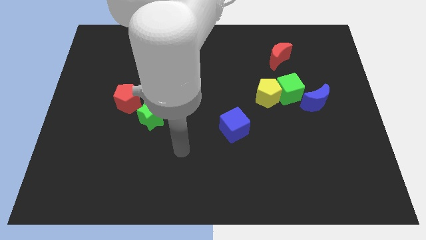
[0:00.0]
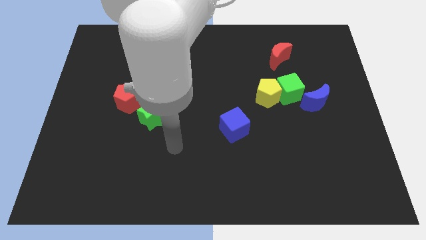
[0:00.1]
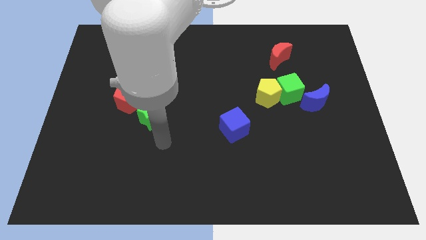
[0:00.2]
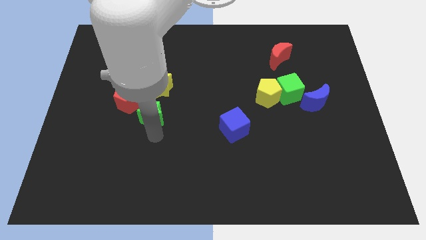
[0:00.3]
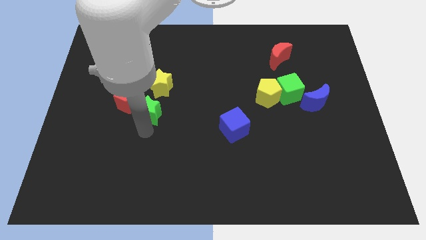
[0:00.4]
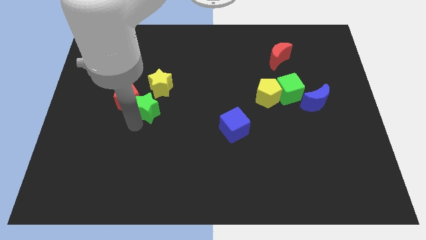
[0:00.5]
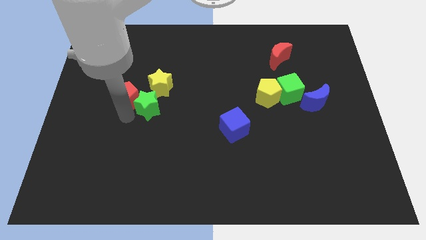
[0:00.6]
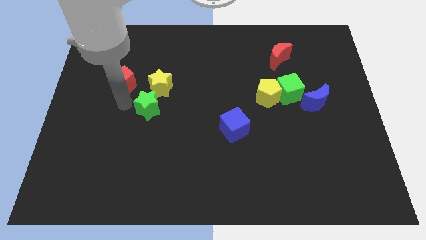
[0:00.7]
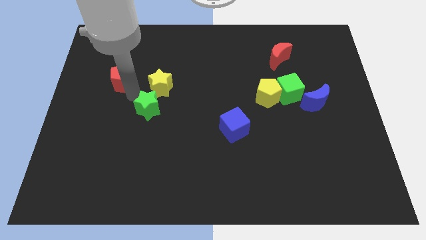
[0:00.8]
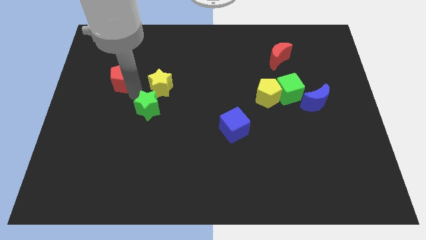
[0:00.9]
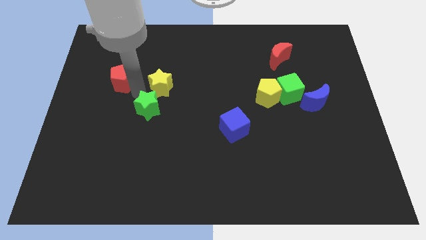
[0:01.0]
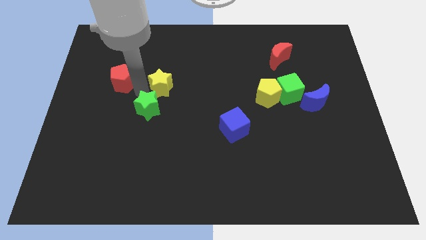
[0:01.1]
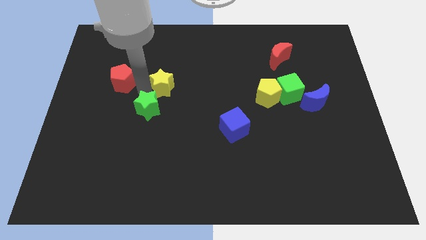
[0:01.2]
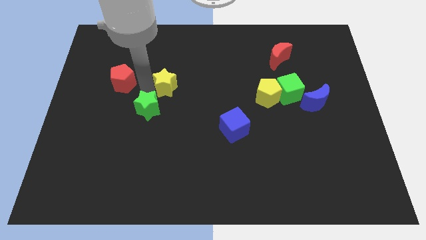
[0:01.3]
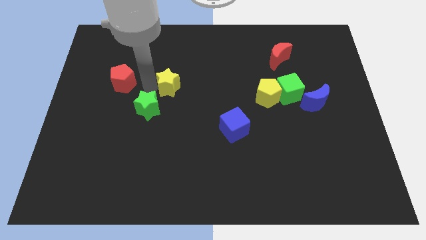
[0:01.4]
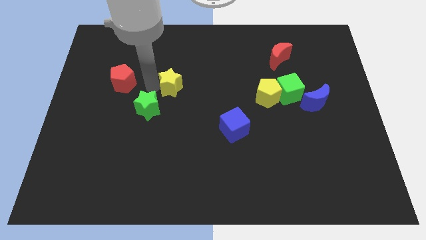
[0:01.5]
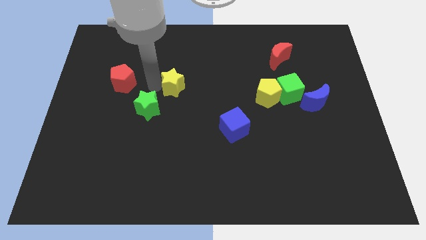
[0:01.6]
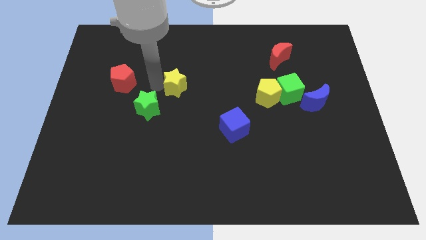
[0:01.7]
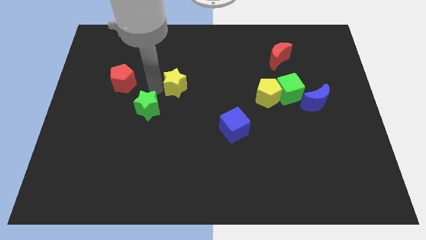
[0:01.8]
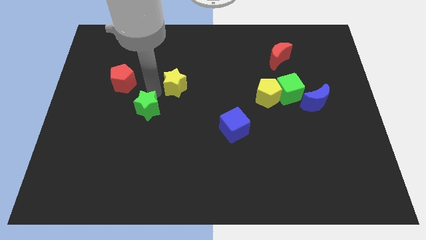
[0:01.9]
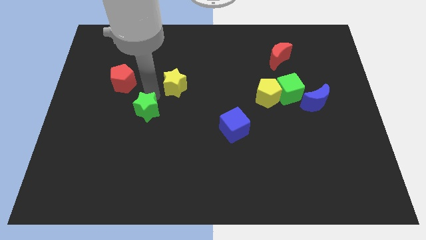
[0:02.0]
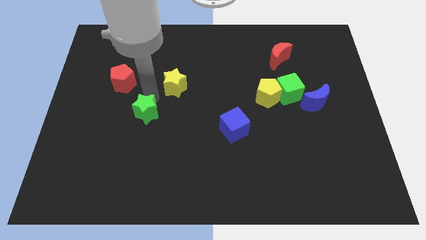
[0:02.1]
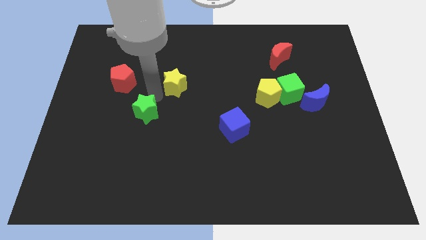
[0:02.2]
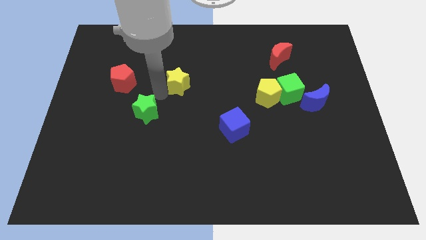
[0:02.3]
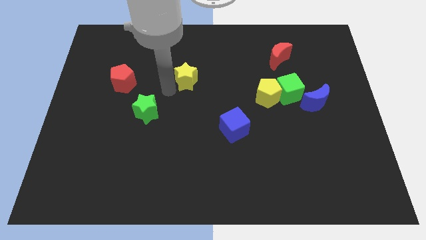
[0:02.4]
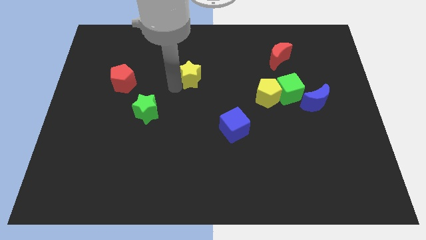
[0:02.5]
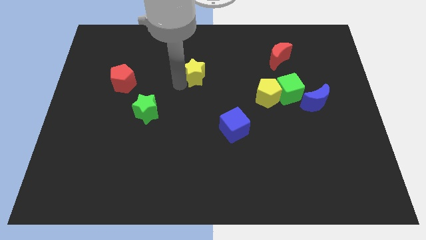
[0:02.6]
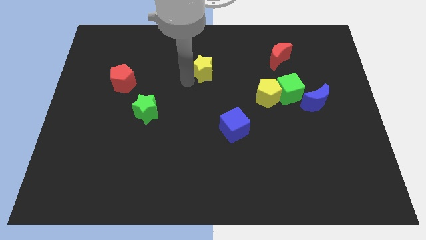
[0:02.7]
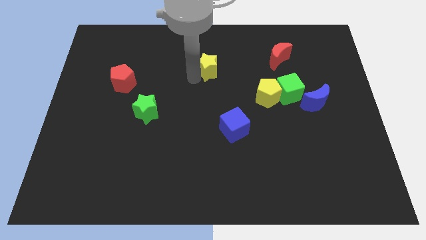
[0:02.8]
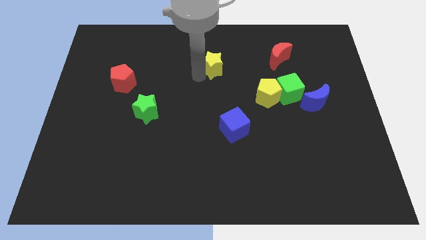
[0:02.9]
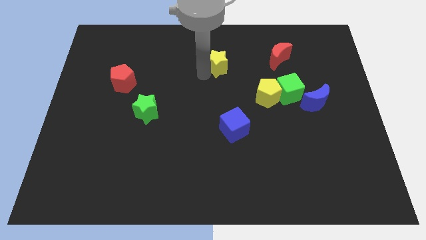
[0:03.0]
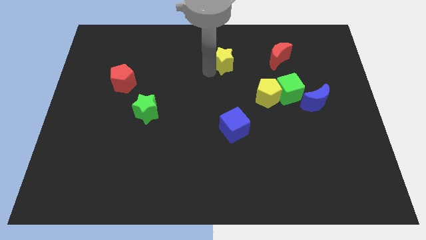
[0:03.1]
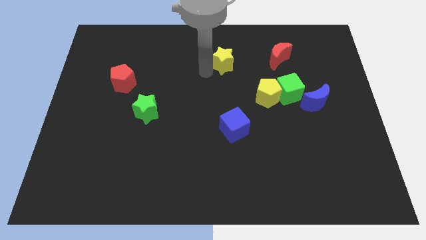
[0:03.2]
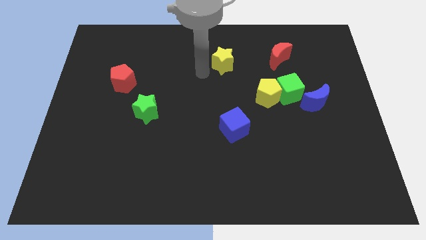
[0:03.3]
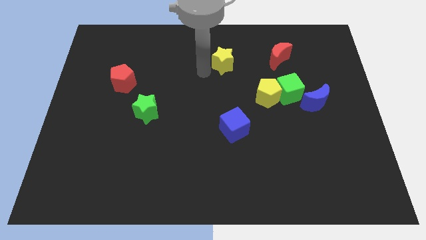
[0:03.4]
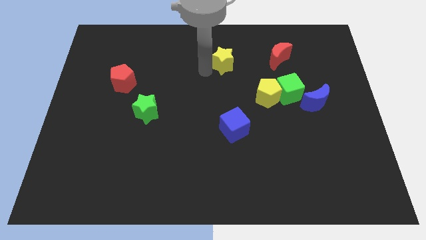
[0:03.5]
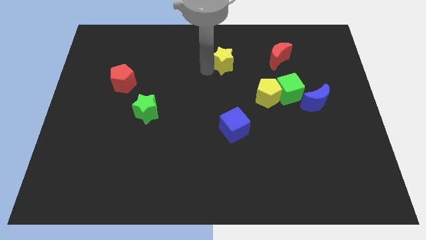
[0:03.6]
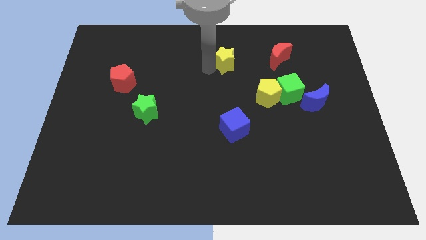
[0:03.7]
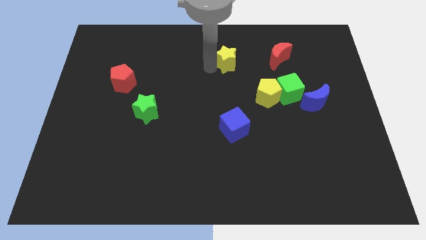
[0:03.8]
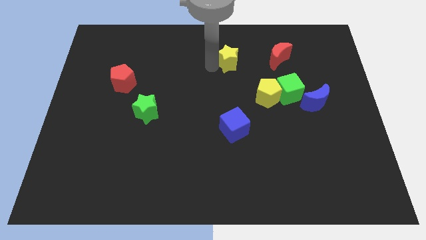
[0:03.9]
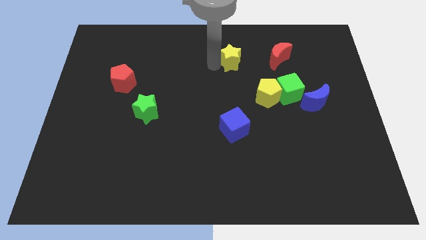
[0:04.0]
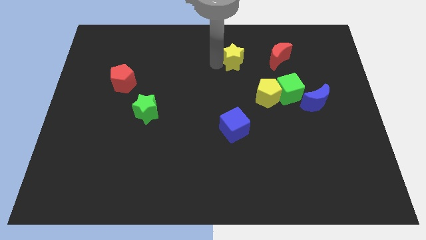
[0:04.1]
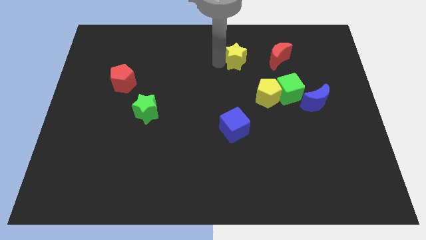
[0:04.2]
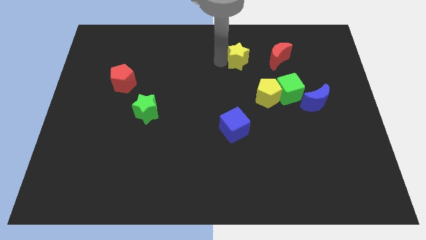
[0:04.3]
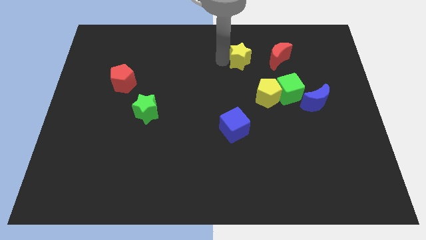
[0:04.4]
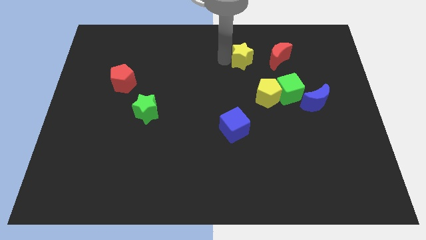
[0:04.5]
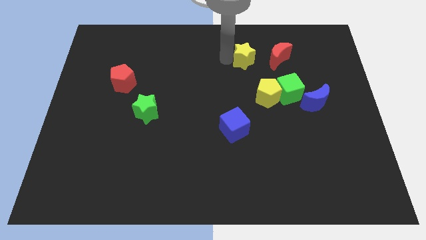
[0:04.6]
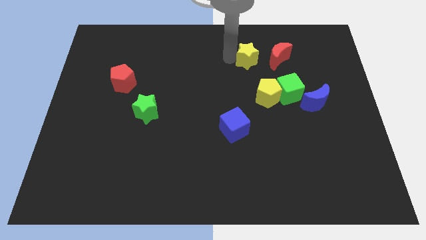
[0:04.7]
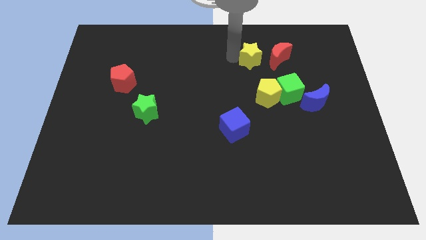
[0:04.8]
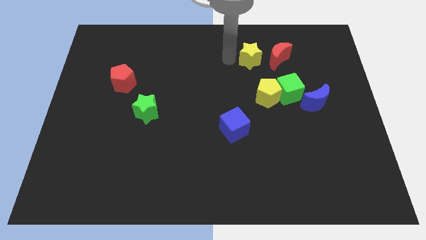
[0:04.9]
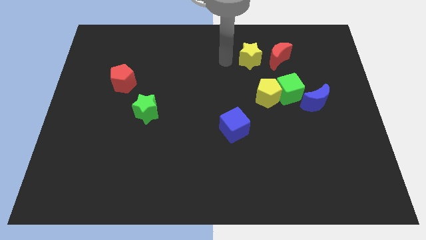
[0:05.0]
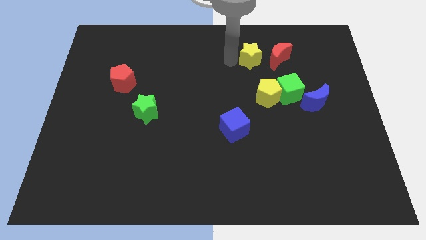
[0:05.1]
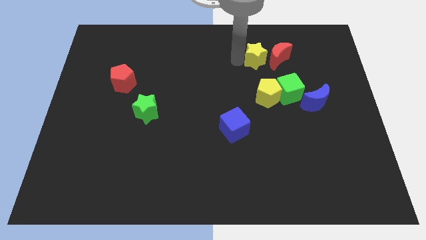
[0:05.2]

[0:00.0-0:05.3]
slide the yellow star next to the red moon

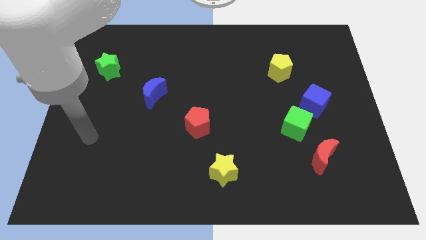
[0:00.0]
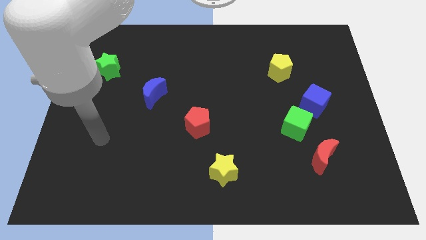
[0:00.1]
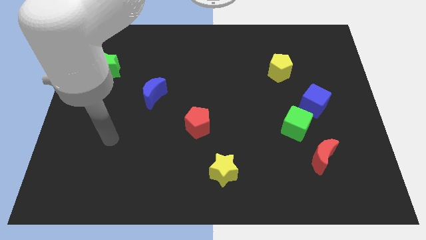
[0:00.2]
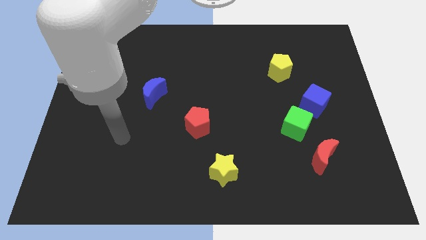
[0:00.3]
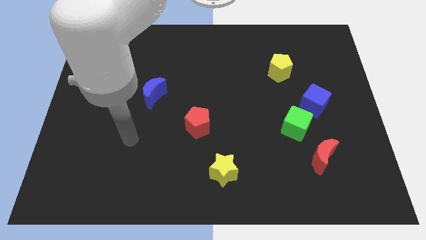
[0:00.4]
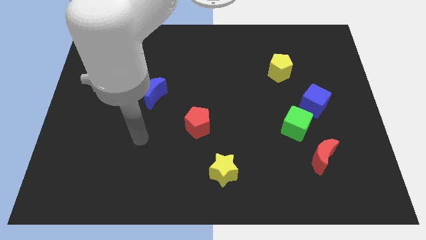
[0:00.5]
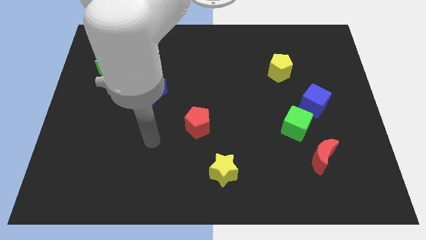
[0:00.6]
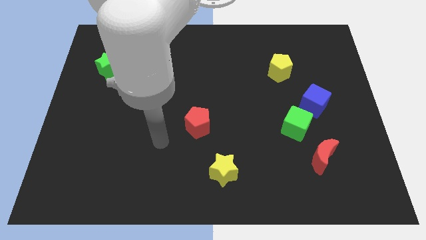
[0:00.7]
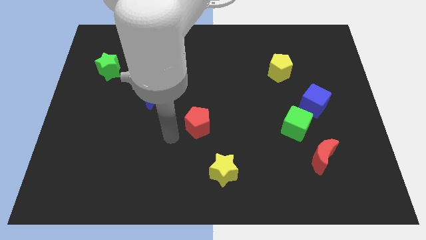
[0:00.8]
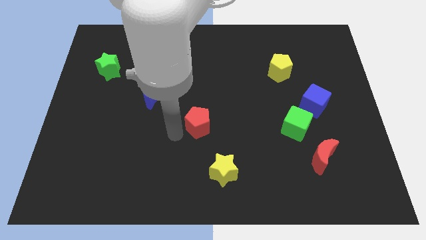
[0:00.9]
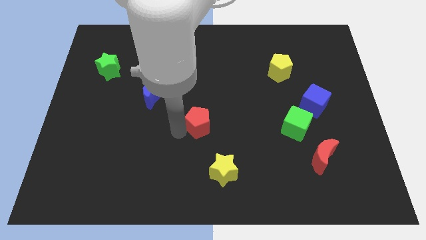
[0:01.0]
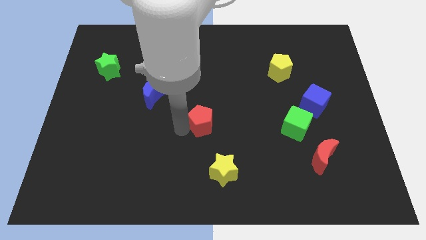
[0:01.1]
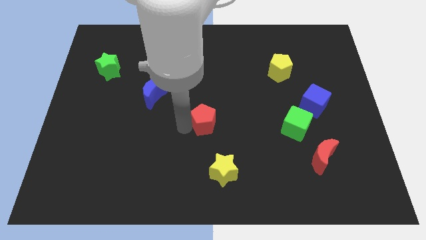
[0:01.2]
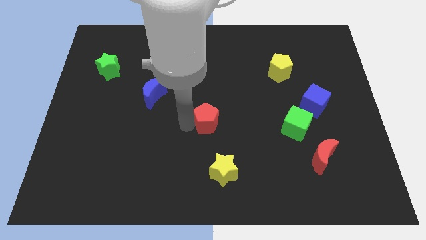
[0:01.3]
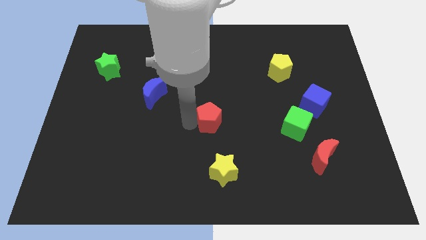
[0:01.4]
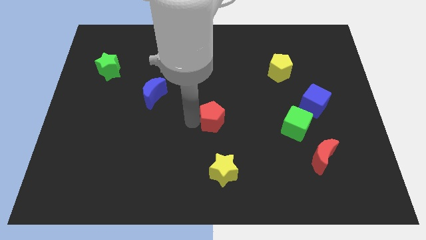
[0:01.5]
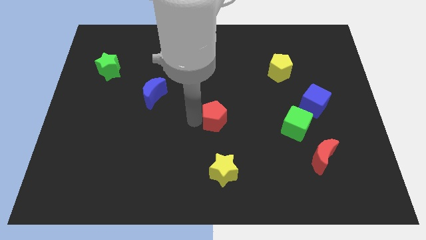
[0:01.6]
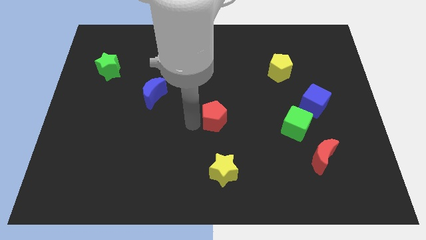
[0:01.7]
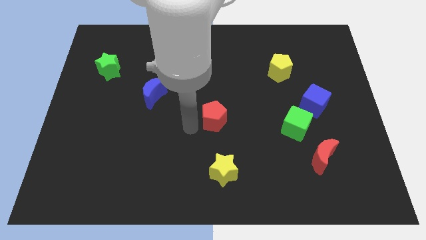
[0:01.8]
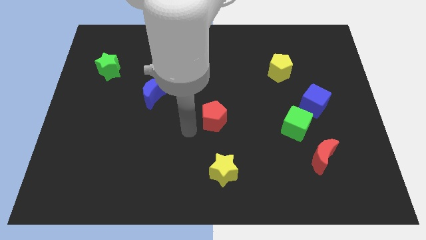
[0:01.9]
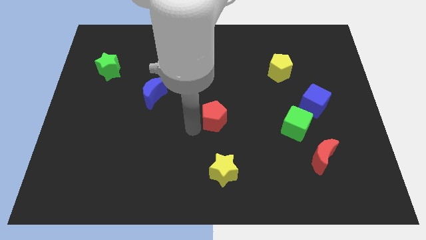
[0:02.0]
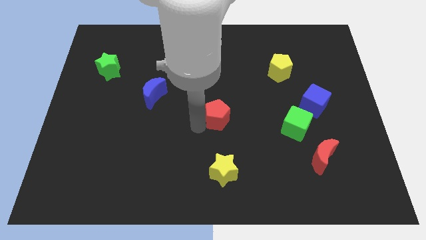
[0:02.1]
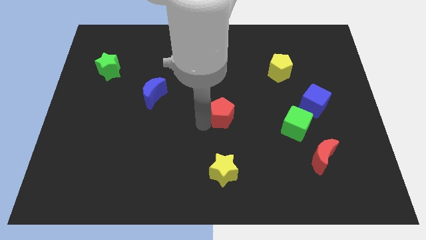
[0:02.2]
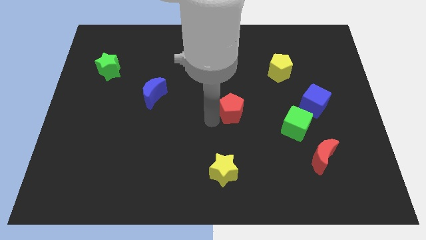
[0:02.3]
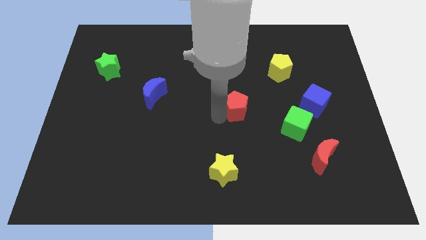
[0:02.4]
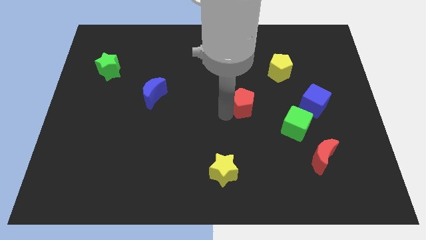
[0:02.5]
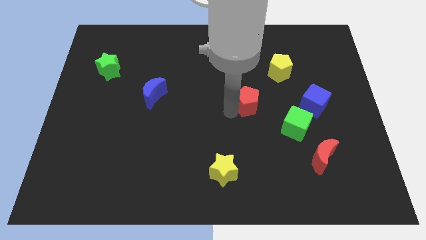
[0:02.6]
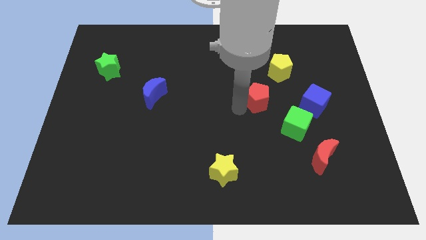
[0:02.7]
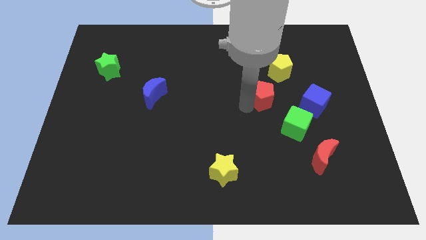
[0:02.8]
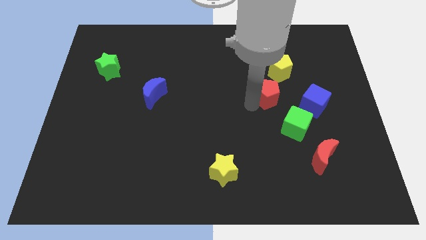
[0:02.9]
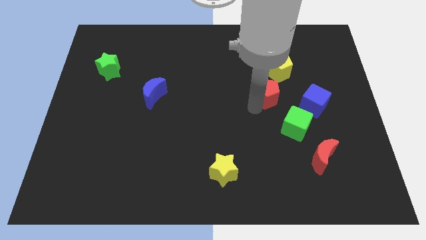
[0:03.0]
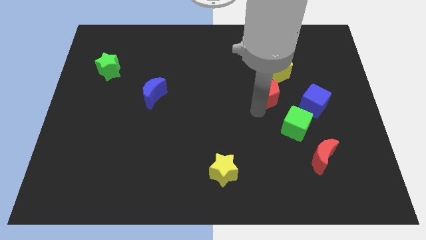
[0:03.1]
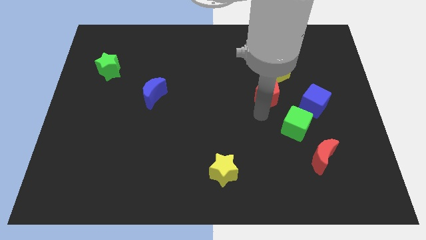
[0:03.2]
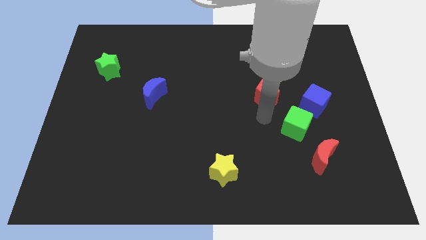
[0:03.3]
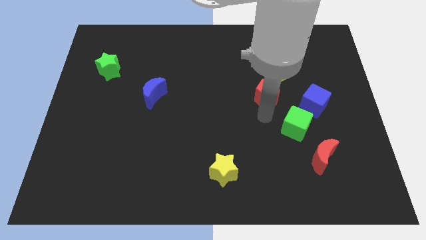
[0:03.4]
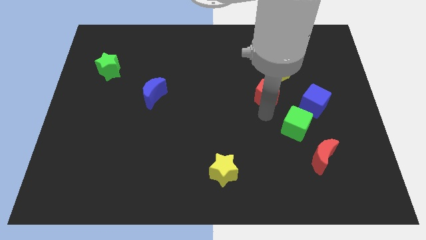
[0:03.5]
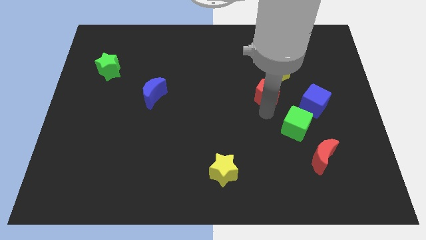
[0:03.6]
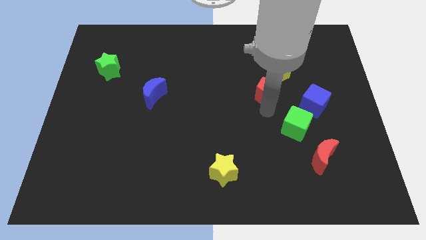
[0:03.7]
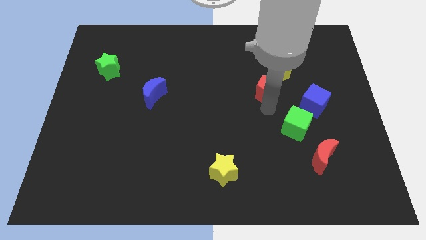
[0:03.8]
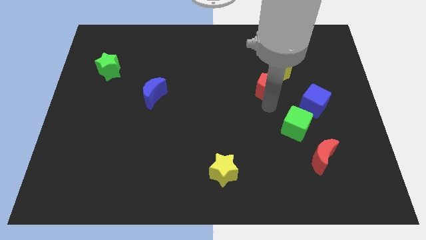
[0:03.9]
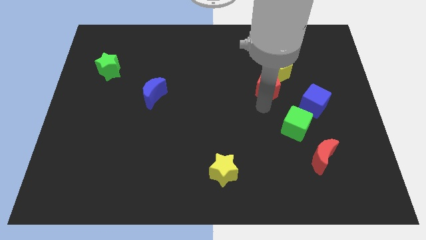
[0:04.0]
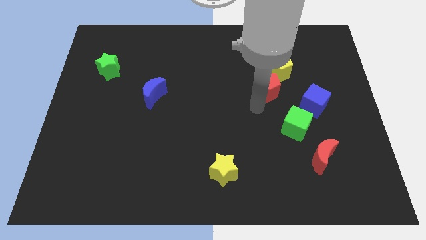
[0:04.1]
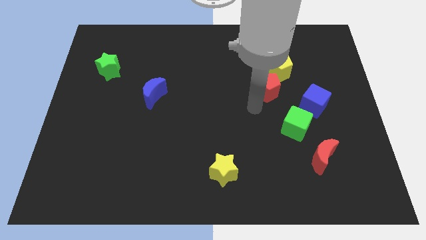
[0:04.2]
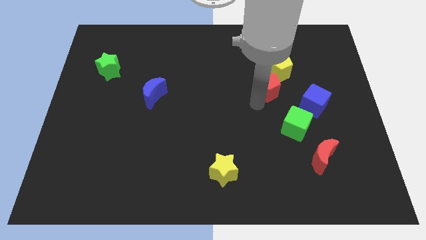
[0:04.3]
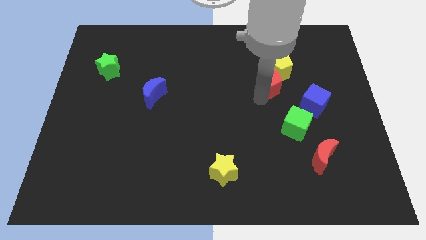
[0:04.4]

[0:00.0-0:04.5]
push the red pentagon towards the yellow pentagon
